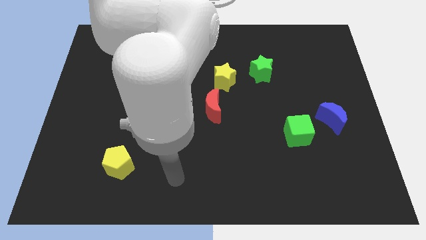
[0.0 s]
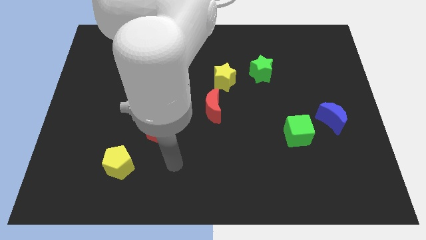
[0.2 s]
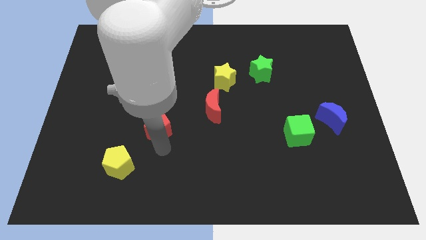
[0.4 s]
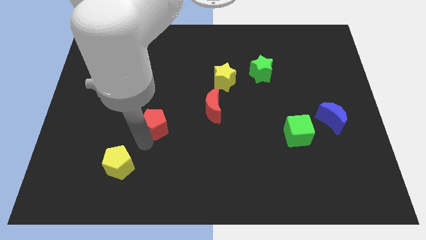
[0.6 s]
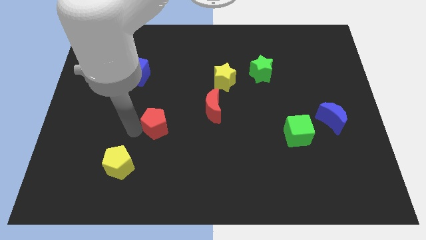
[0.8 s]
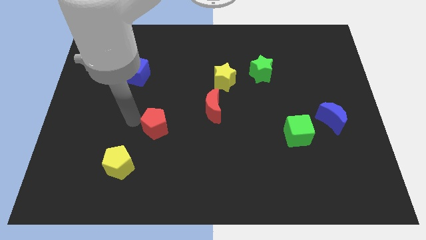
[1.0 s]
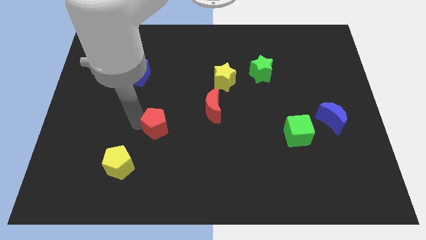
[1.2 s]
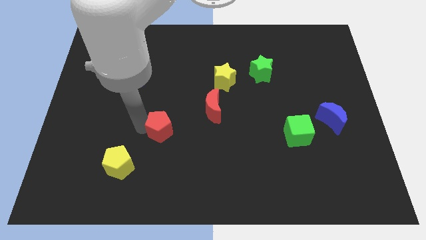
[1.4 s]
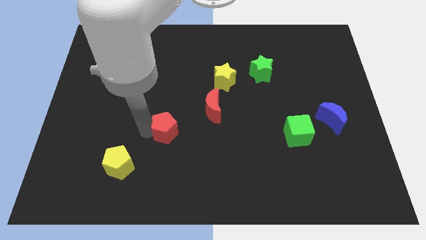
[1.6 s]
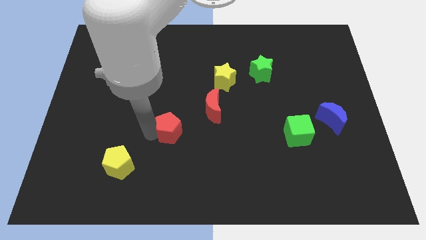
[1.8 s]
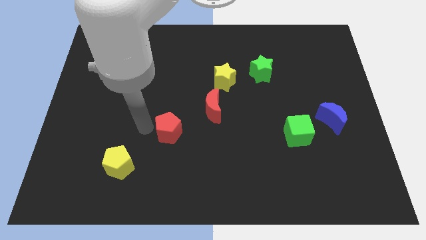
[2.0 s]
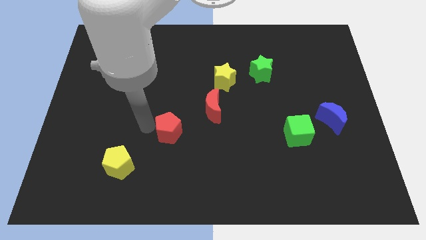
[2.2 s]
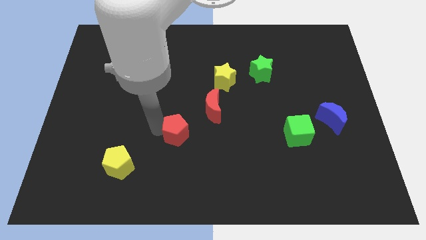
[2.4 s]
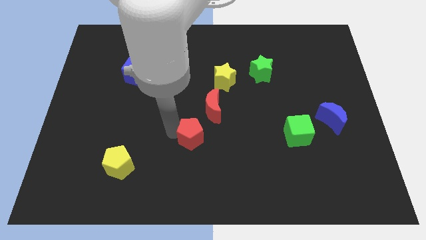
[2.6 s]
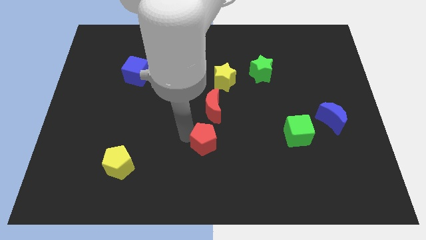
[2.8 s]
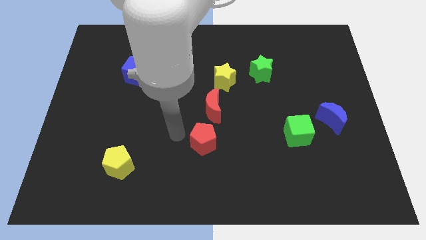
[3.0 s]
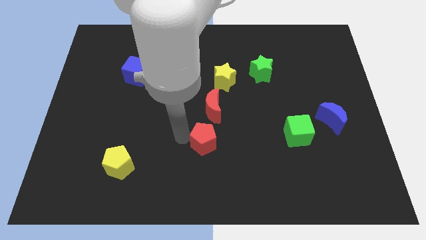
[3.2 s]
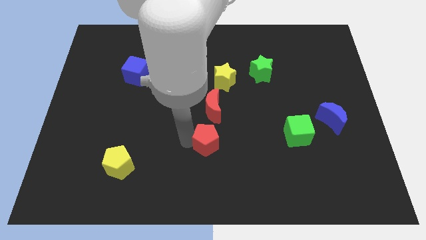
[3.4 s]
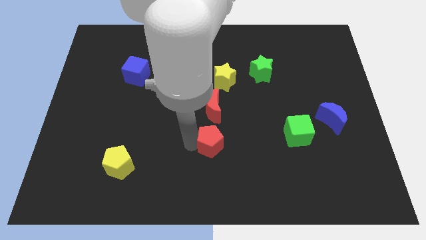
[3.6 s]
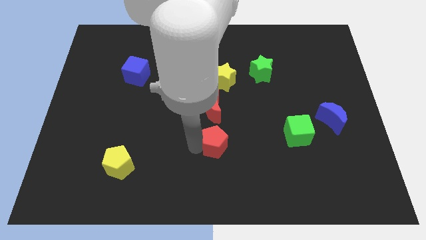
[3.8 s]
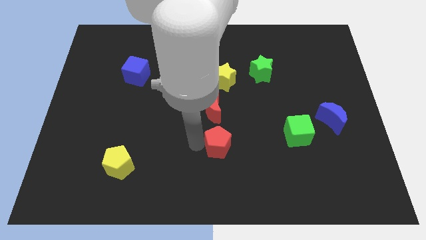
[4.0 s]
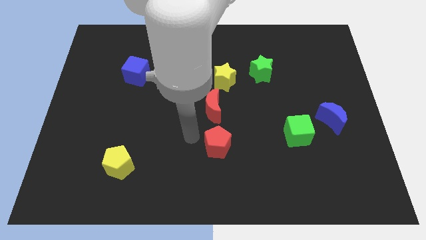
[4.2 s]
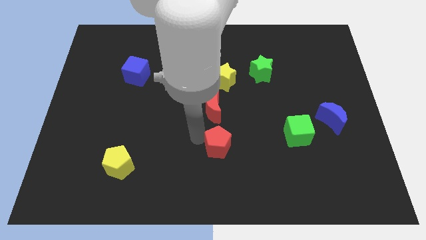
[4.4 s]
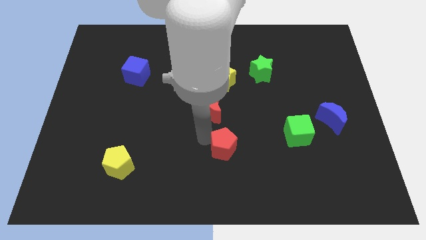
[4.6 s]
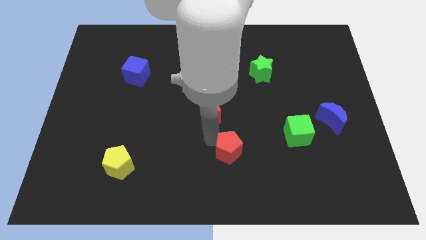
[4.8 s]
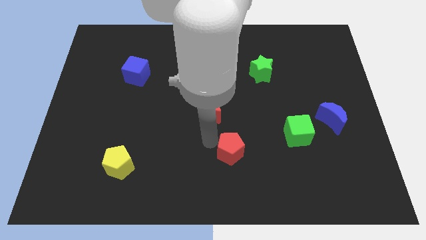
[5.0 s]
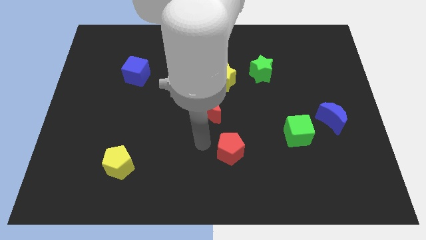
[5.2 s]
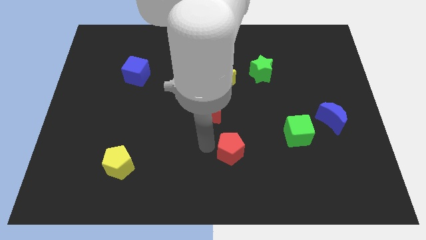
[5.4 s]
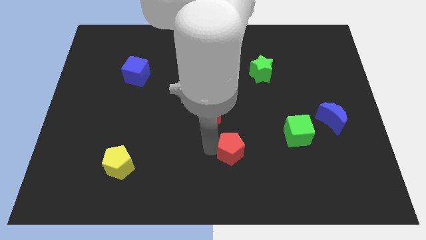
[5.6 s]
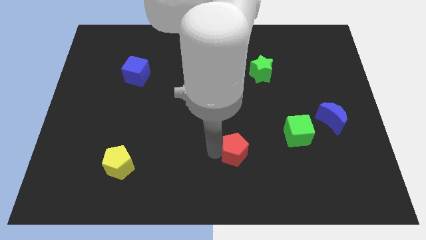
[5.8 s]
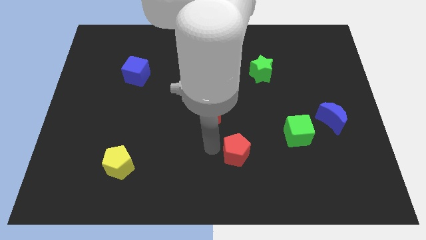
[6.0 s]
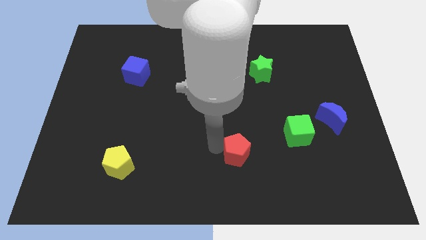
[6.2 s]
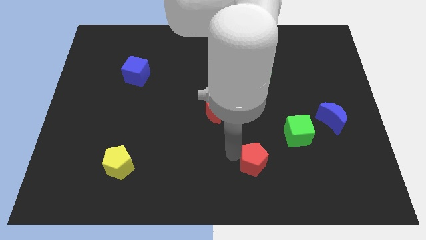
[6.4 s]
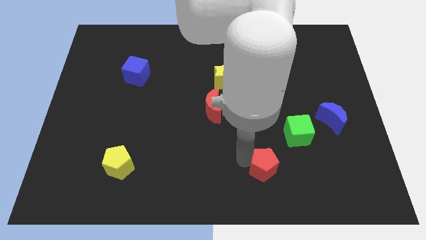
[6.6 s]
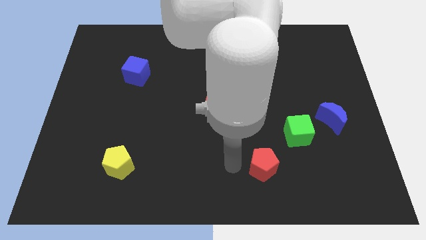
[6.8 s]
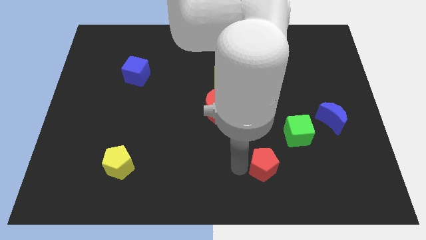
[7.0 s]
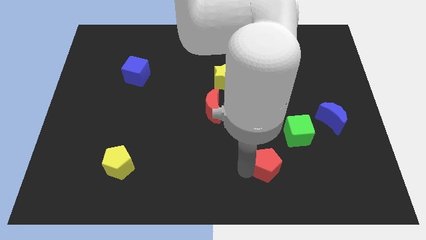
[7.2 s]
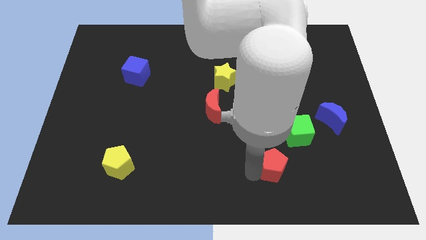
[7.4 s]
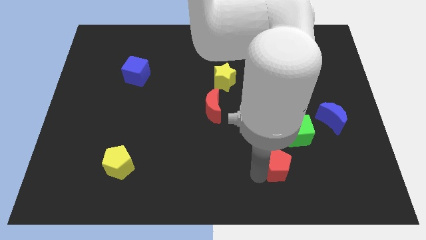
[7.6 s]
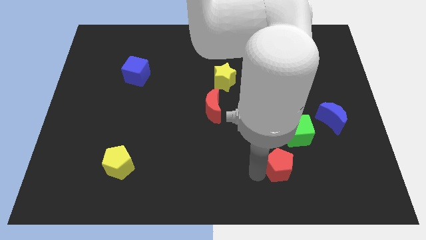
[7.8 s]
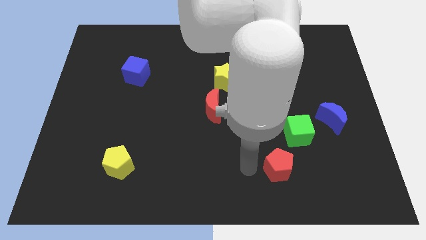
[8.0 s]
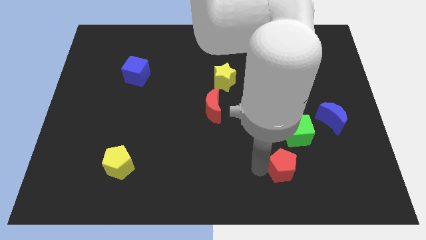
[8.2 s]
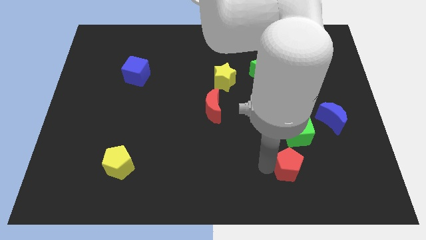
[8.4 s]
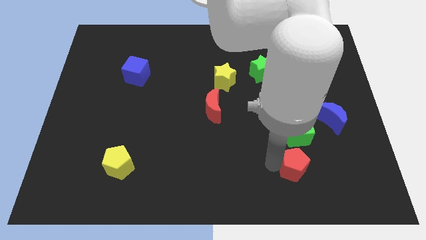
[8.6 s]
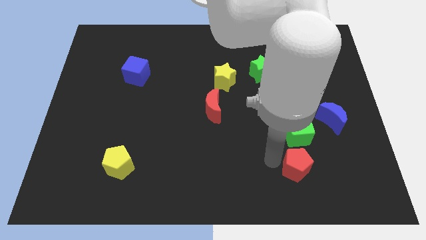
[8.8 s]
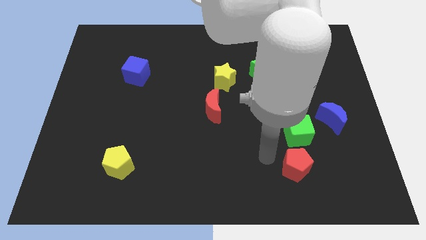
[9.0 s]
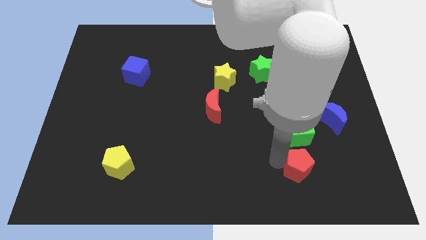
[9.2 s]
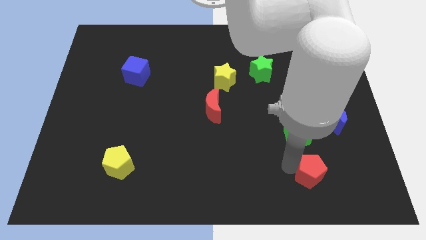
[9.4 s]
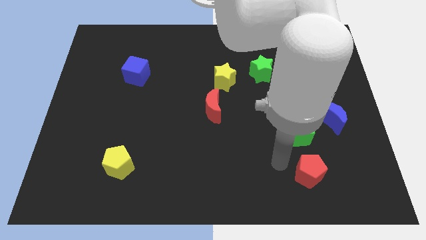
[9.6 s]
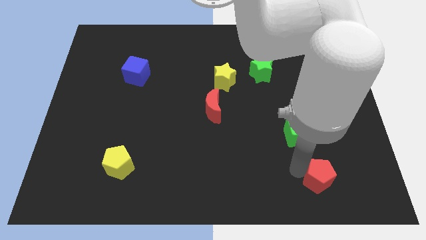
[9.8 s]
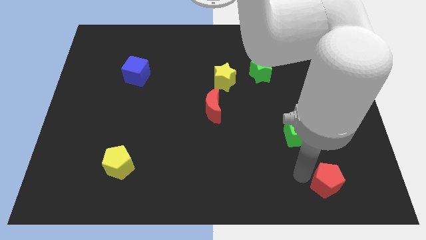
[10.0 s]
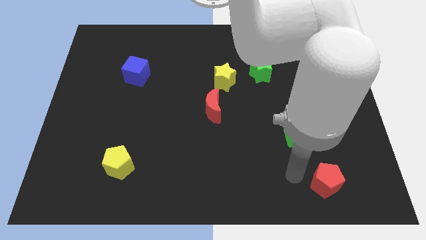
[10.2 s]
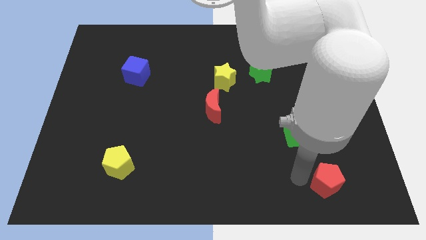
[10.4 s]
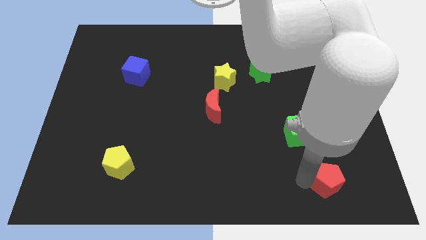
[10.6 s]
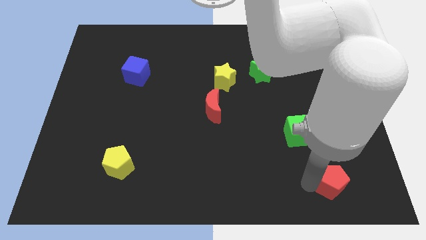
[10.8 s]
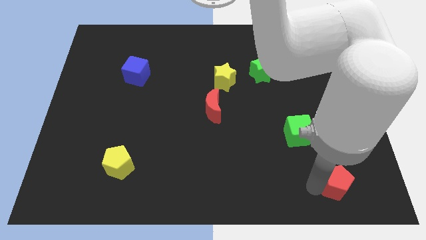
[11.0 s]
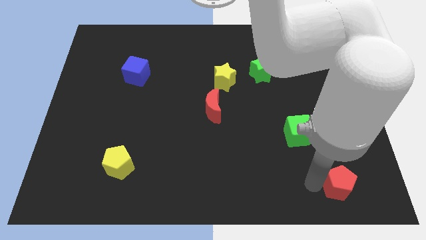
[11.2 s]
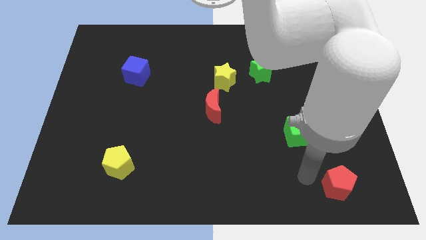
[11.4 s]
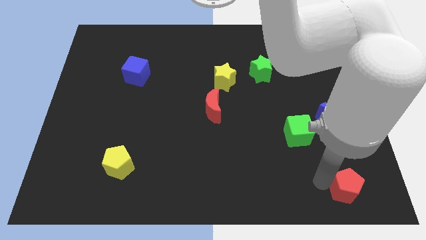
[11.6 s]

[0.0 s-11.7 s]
move the red pentagon to the bottom right
